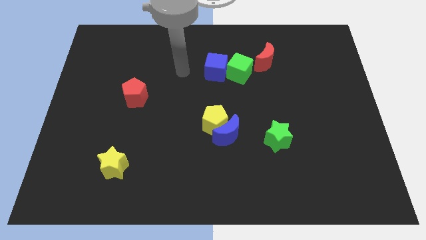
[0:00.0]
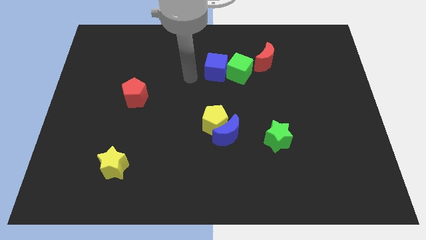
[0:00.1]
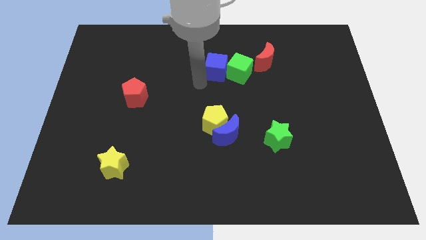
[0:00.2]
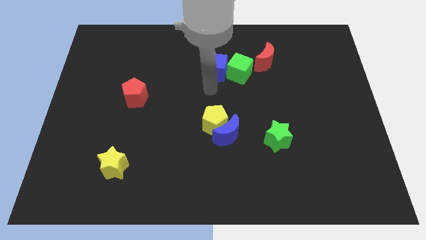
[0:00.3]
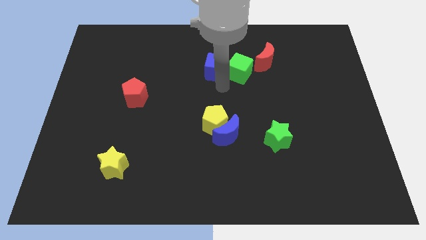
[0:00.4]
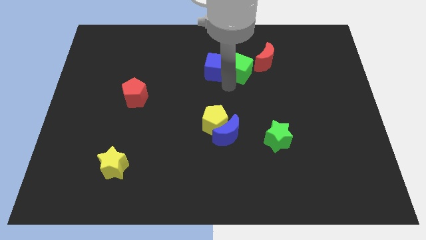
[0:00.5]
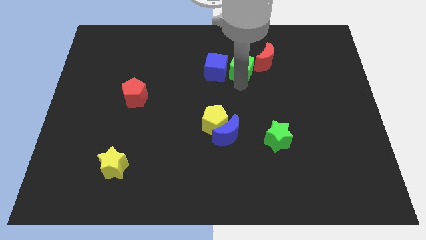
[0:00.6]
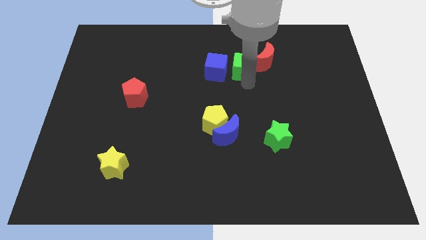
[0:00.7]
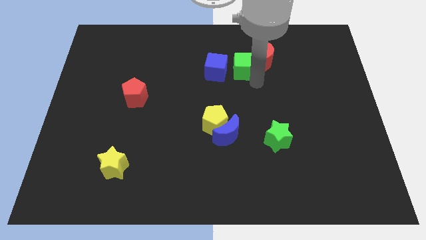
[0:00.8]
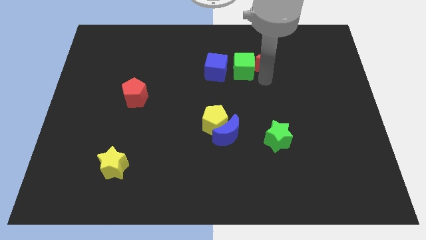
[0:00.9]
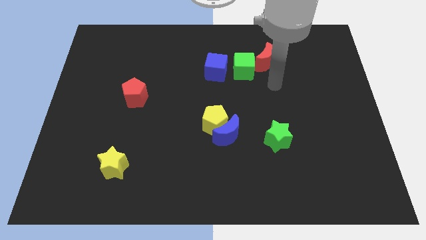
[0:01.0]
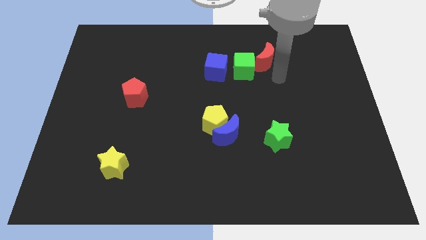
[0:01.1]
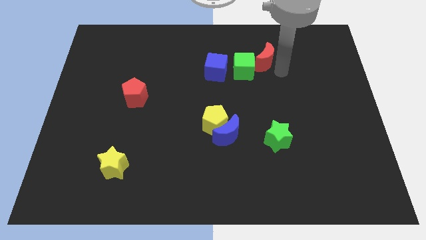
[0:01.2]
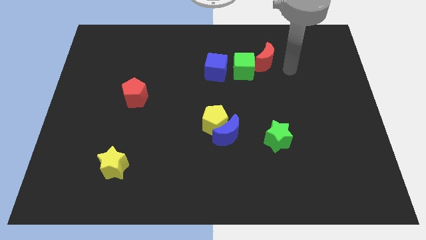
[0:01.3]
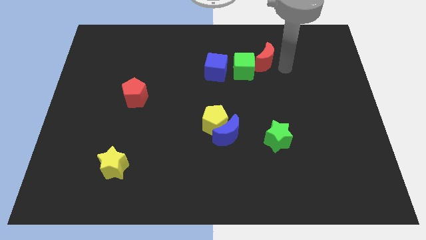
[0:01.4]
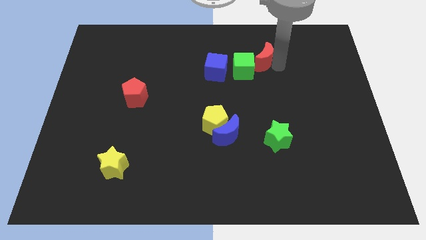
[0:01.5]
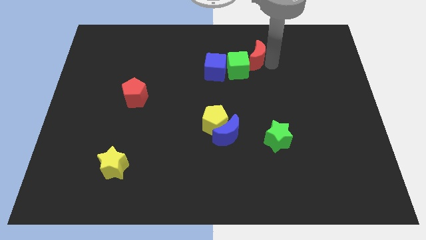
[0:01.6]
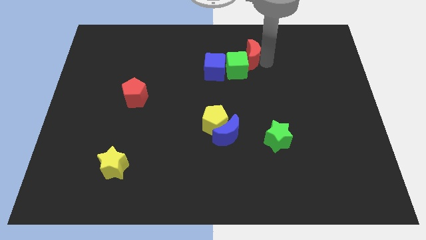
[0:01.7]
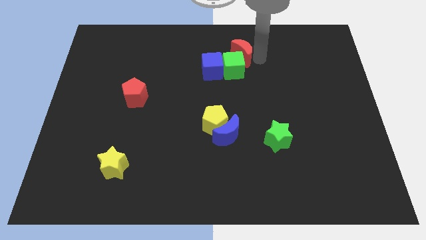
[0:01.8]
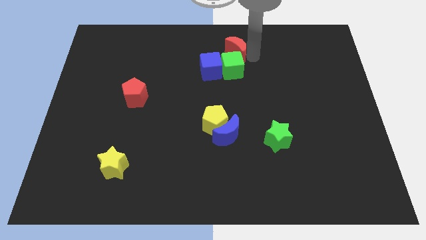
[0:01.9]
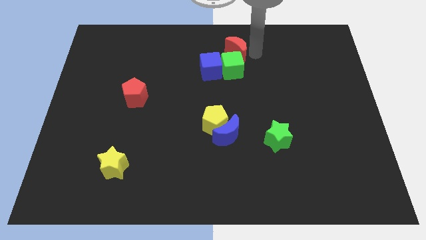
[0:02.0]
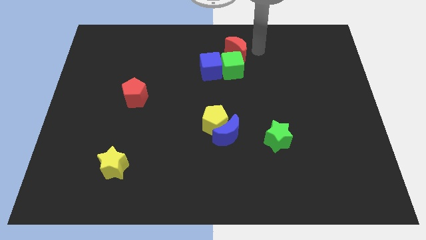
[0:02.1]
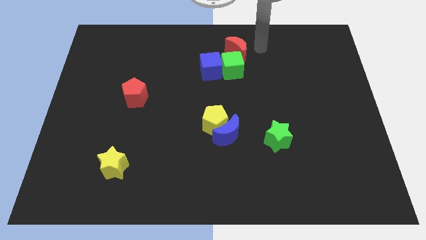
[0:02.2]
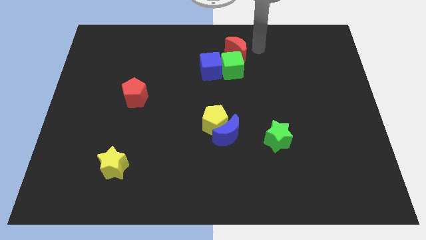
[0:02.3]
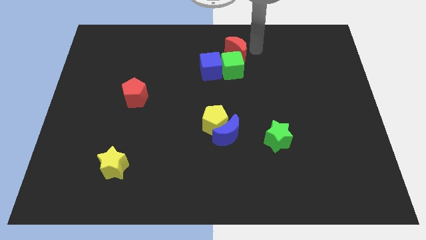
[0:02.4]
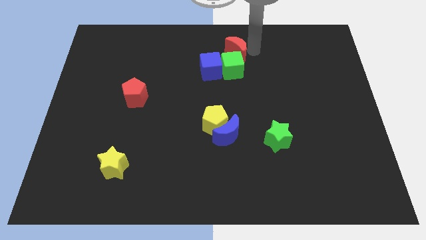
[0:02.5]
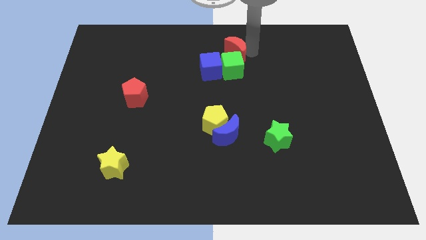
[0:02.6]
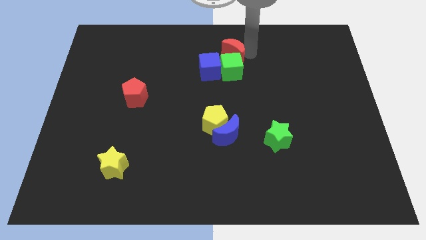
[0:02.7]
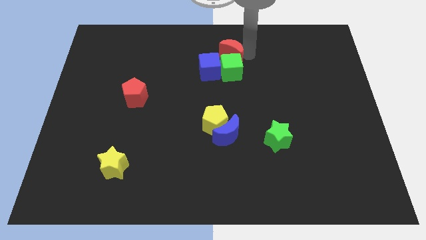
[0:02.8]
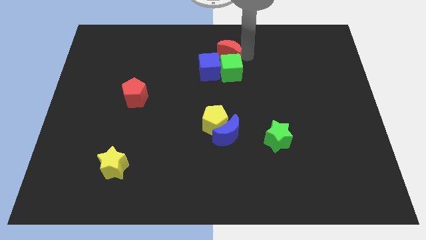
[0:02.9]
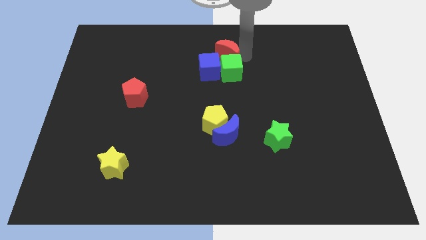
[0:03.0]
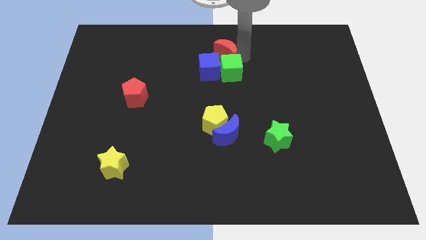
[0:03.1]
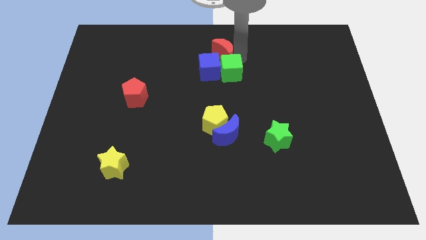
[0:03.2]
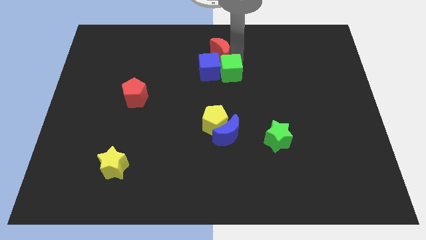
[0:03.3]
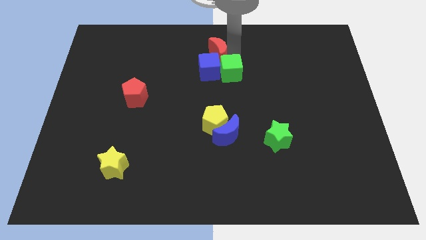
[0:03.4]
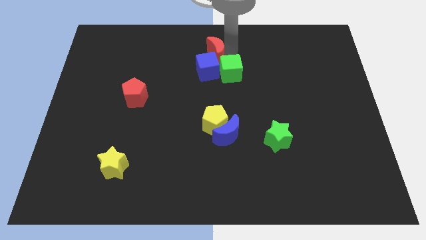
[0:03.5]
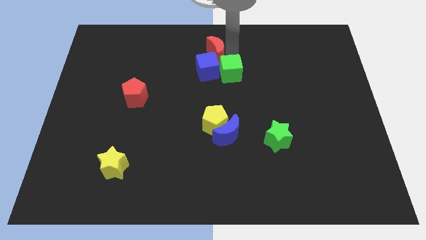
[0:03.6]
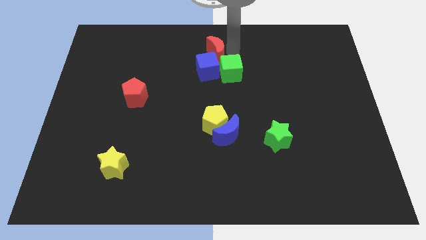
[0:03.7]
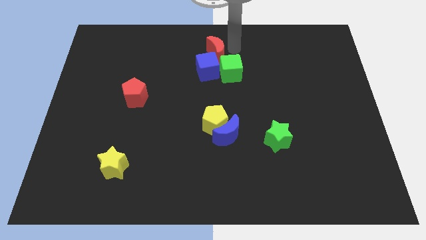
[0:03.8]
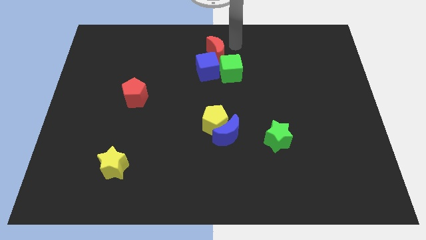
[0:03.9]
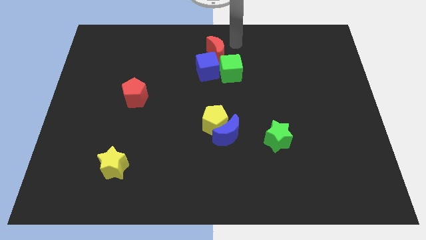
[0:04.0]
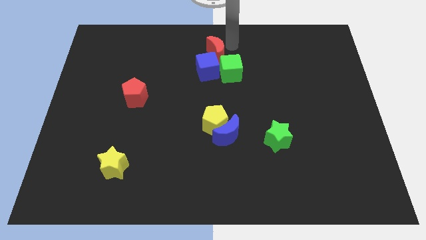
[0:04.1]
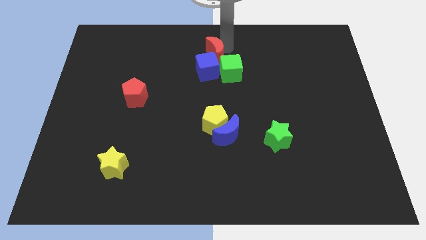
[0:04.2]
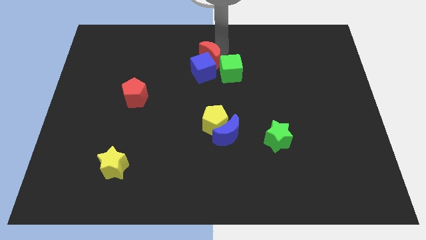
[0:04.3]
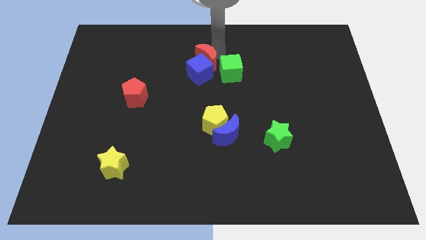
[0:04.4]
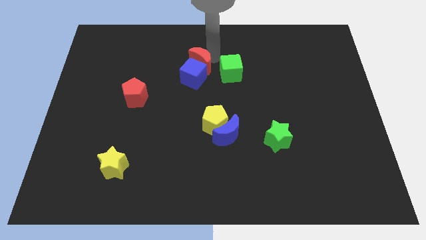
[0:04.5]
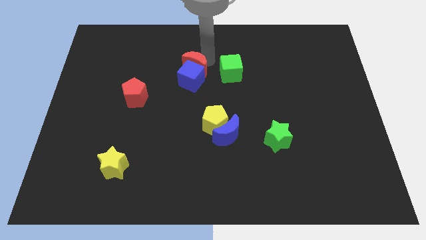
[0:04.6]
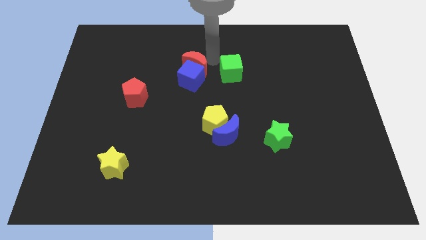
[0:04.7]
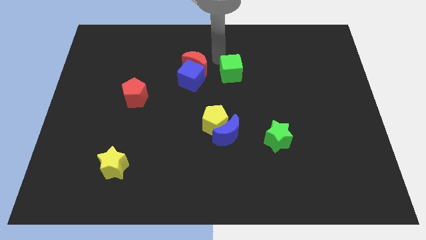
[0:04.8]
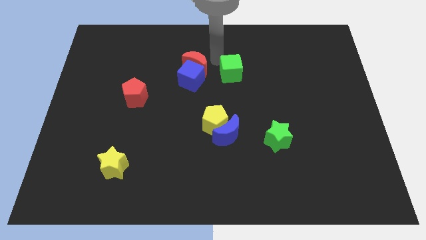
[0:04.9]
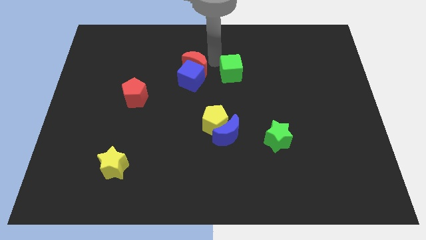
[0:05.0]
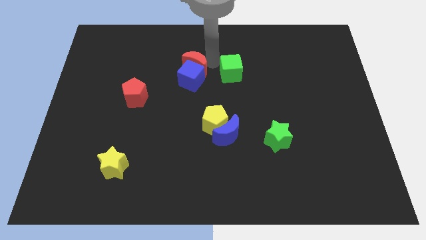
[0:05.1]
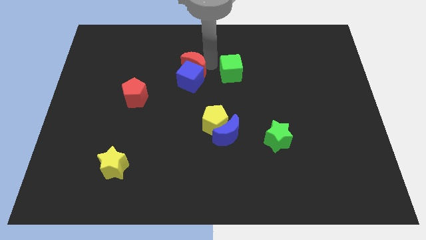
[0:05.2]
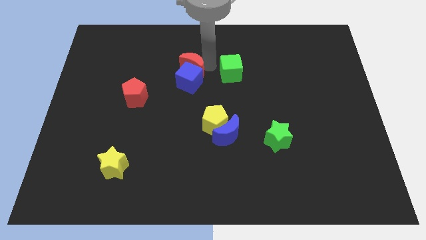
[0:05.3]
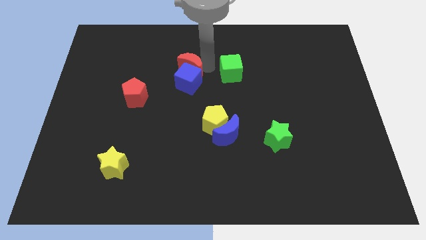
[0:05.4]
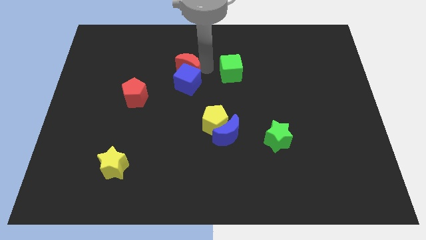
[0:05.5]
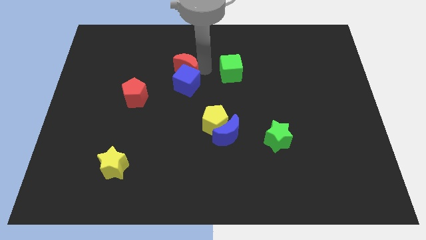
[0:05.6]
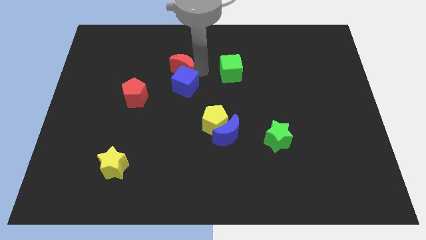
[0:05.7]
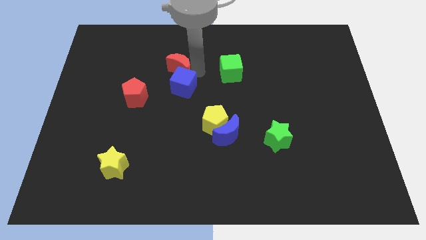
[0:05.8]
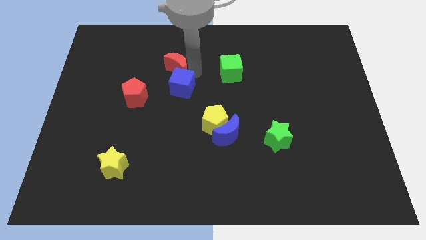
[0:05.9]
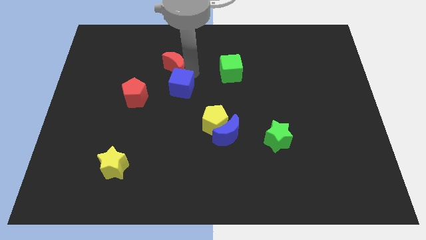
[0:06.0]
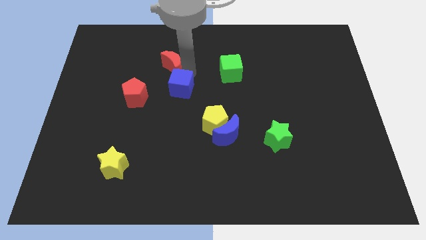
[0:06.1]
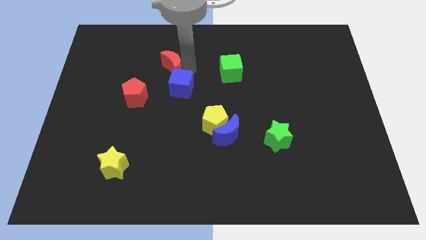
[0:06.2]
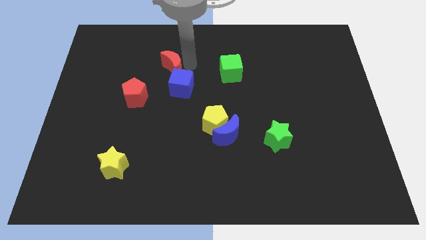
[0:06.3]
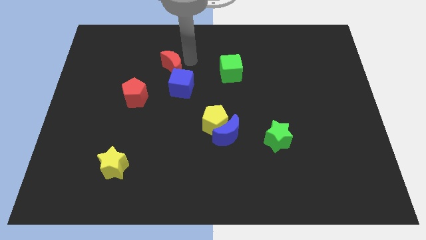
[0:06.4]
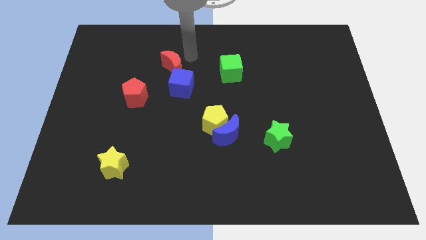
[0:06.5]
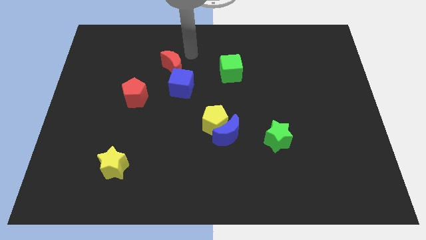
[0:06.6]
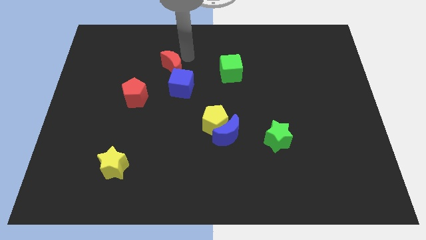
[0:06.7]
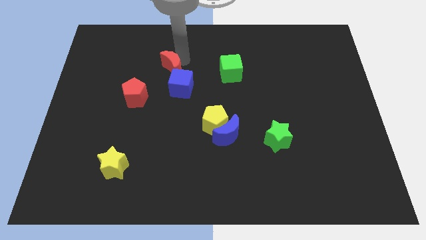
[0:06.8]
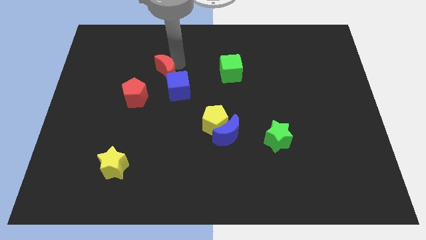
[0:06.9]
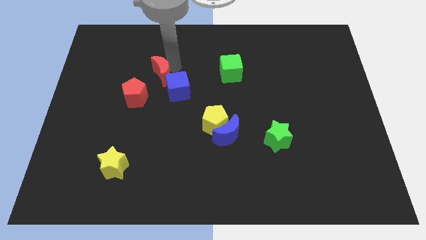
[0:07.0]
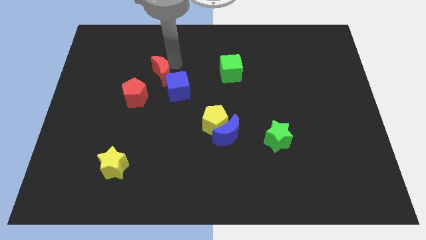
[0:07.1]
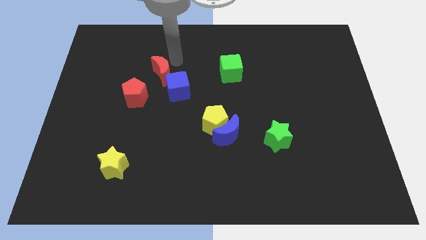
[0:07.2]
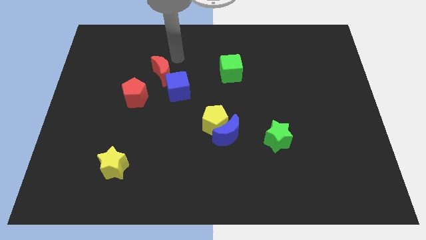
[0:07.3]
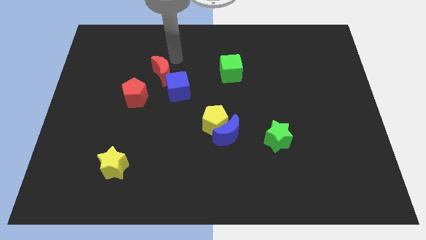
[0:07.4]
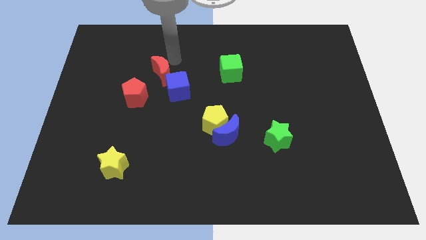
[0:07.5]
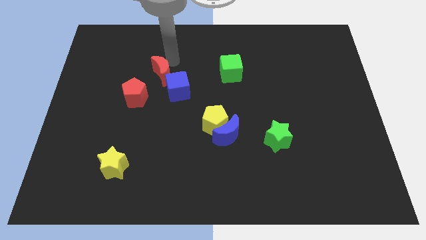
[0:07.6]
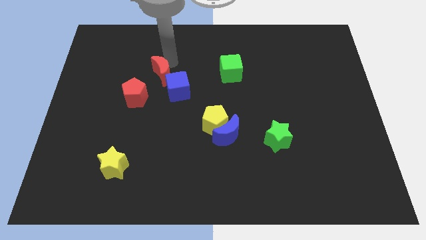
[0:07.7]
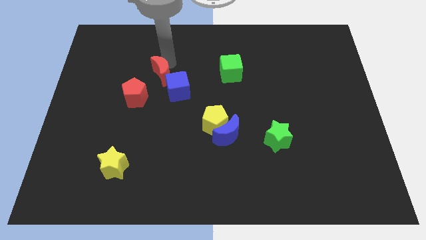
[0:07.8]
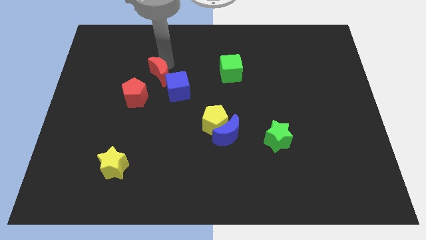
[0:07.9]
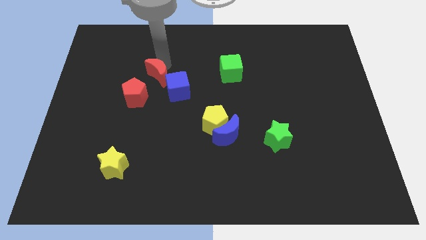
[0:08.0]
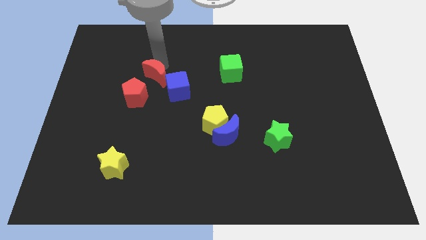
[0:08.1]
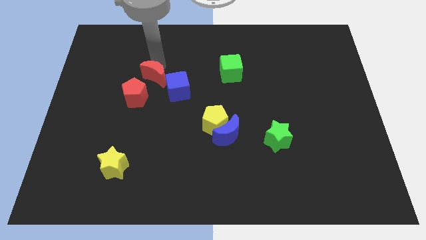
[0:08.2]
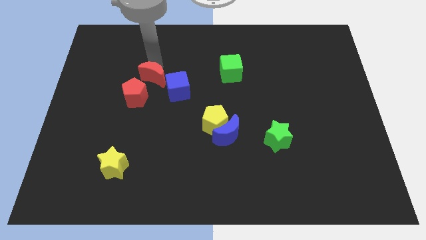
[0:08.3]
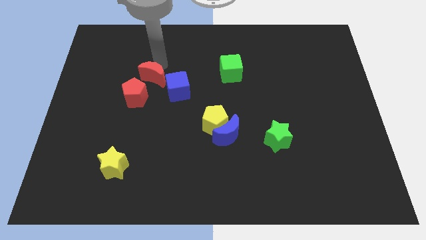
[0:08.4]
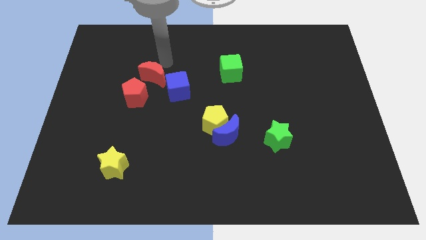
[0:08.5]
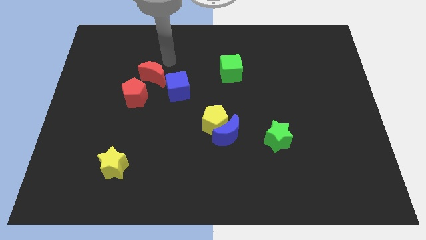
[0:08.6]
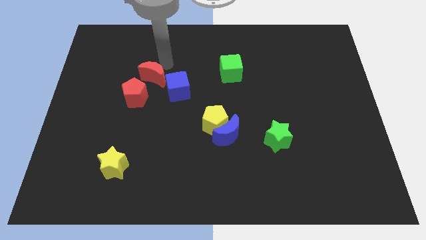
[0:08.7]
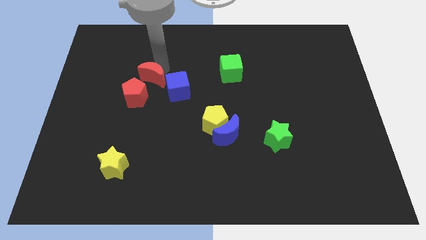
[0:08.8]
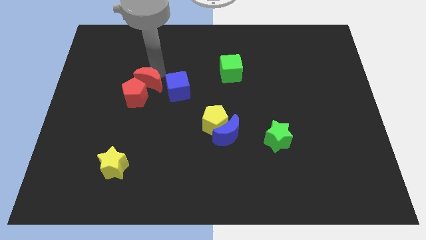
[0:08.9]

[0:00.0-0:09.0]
push the red moon to the red pentagon
